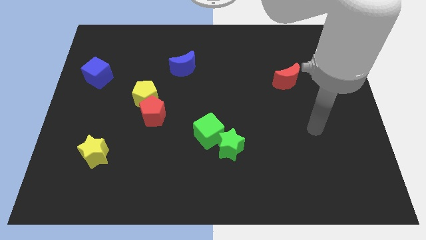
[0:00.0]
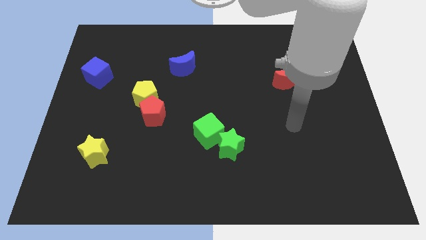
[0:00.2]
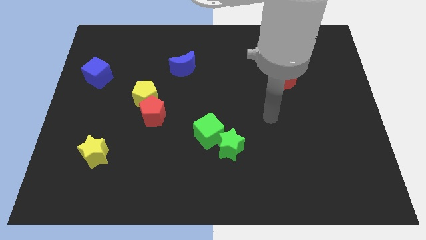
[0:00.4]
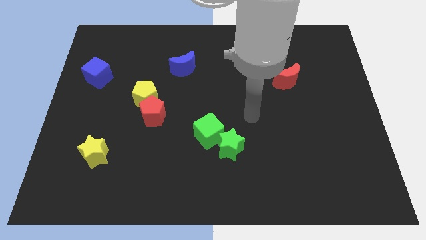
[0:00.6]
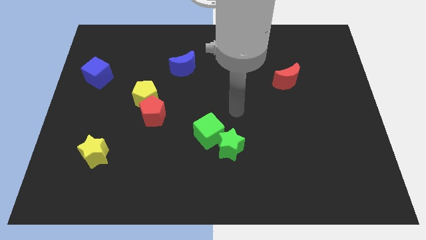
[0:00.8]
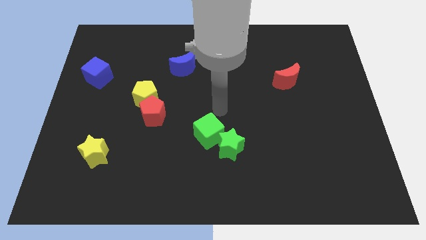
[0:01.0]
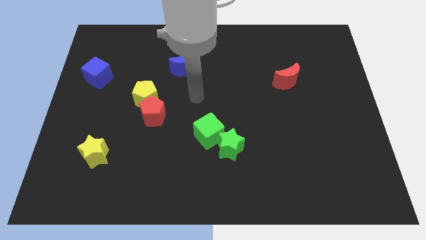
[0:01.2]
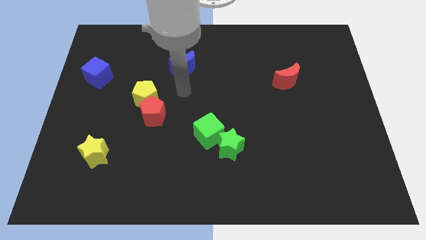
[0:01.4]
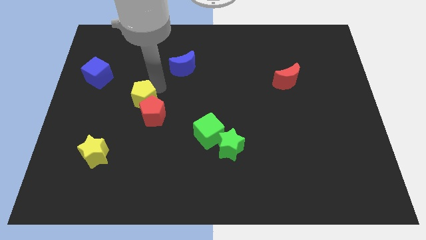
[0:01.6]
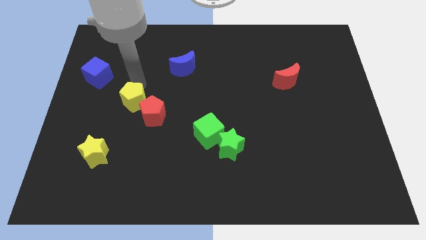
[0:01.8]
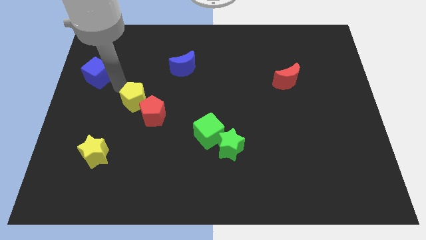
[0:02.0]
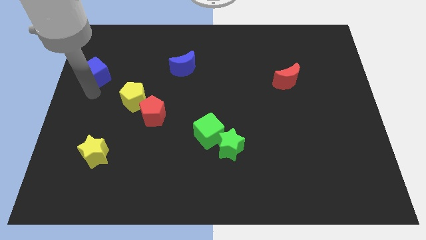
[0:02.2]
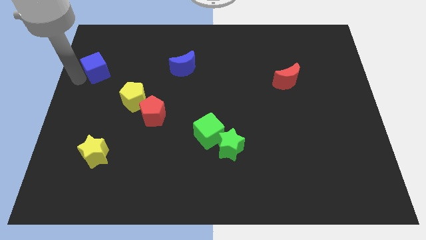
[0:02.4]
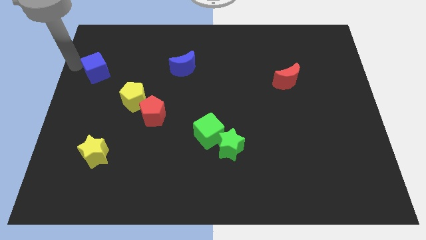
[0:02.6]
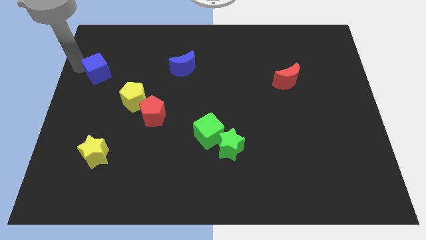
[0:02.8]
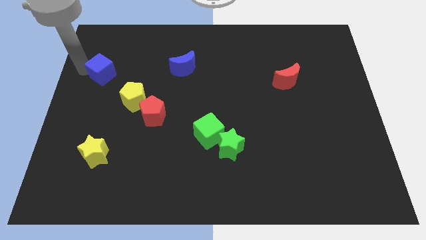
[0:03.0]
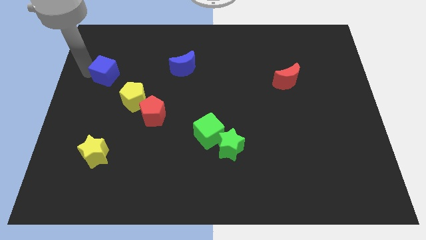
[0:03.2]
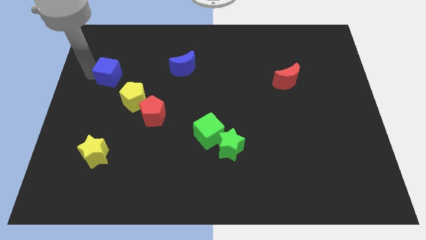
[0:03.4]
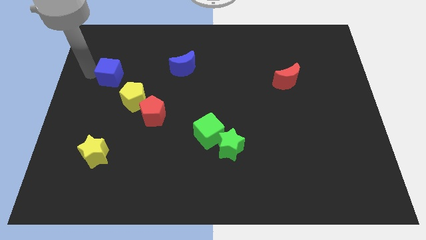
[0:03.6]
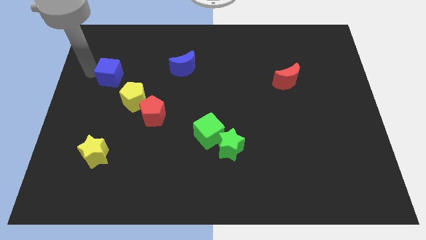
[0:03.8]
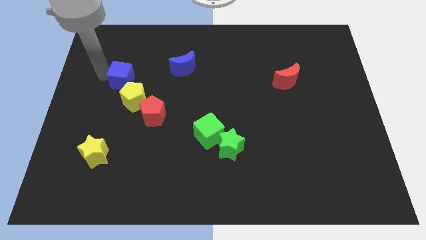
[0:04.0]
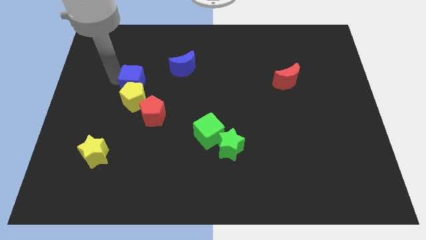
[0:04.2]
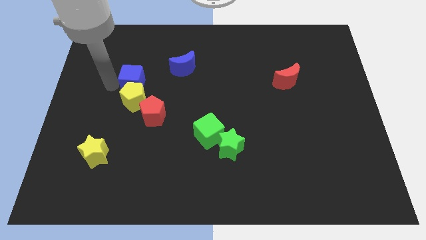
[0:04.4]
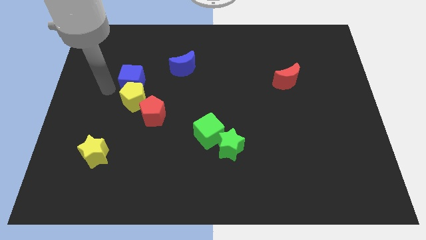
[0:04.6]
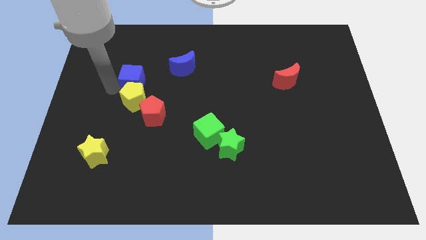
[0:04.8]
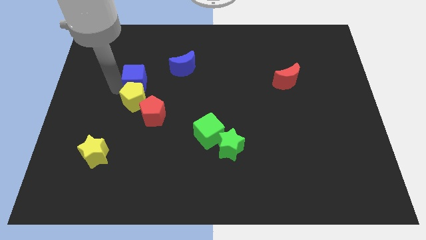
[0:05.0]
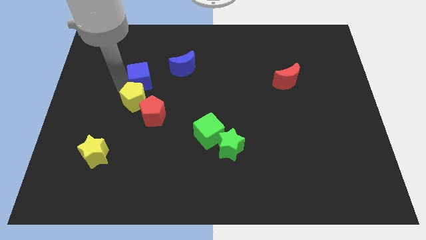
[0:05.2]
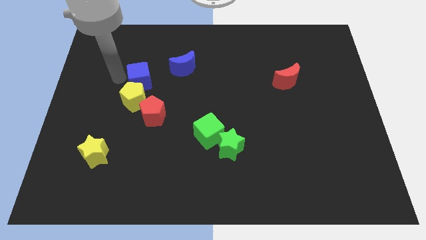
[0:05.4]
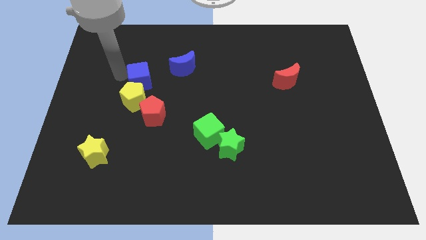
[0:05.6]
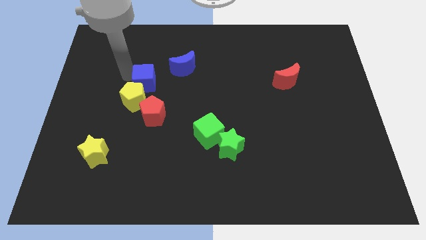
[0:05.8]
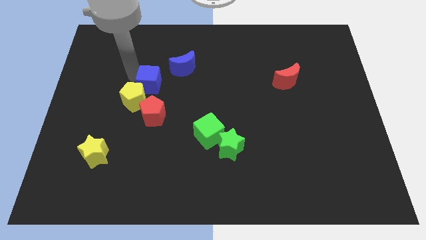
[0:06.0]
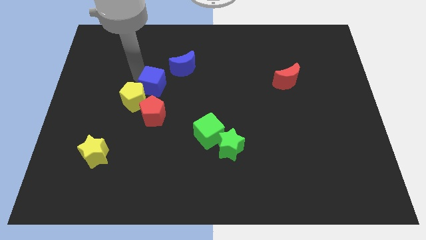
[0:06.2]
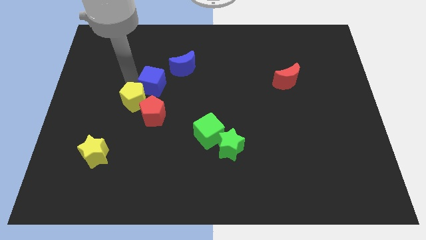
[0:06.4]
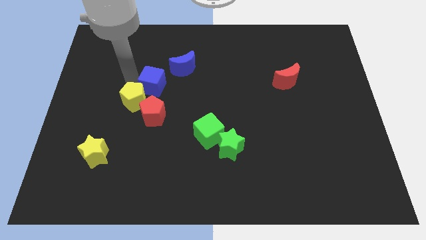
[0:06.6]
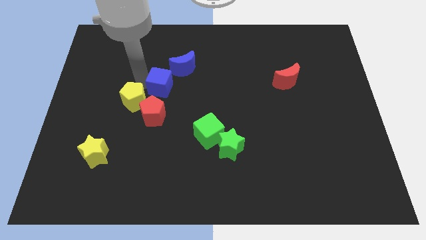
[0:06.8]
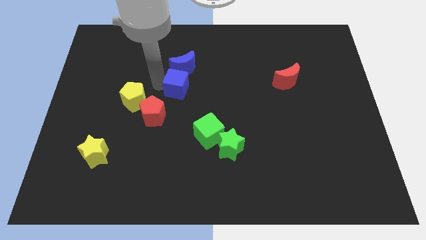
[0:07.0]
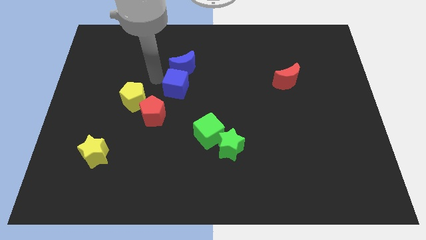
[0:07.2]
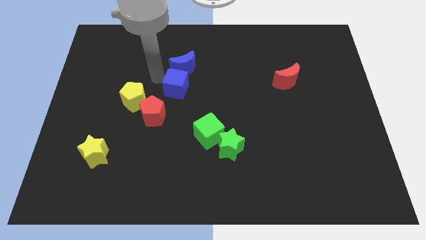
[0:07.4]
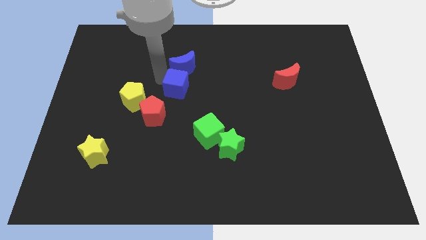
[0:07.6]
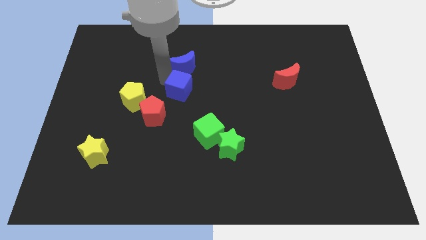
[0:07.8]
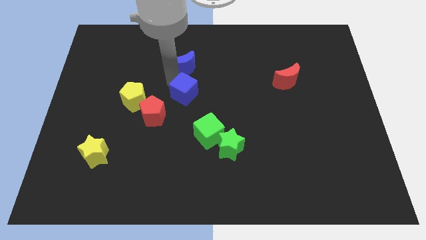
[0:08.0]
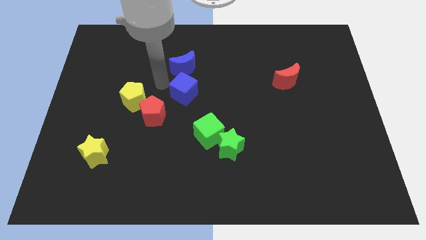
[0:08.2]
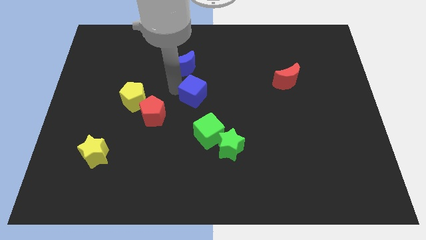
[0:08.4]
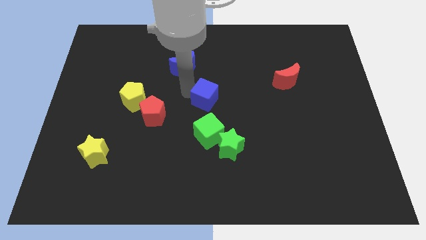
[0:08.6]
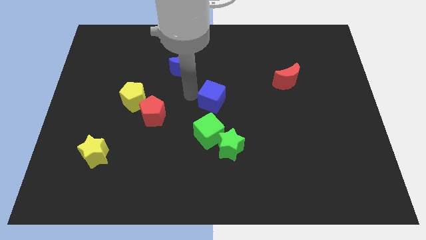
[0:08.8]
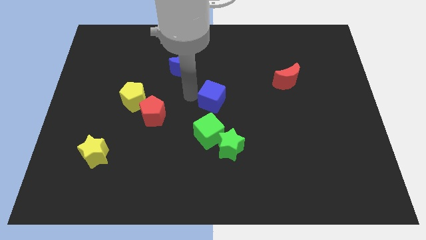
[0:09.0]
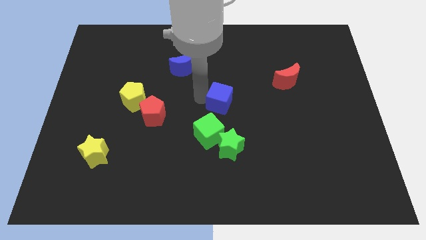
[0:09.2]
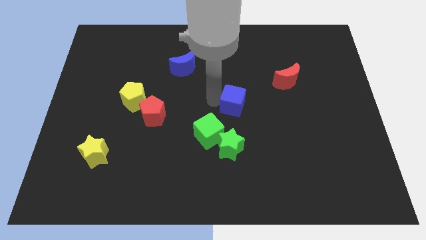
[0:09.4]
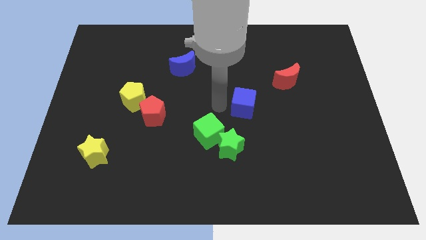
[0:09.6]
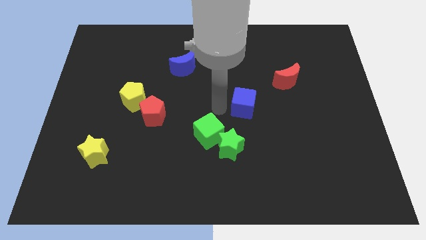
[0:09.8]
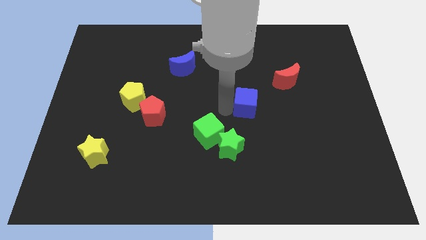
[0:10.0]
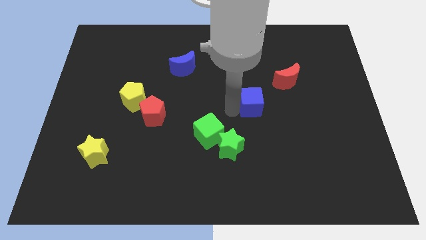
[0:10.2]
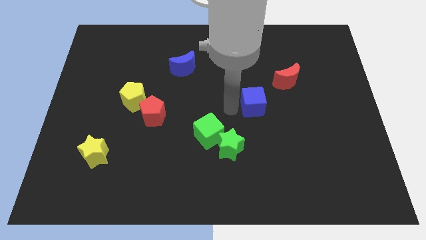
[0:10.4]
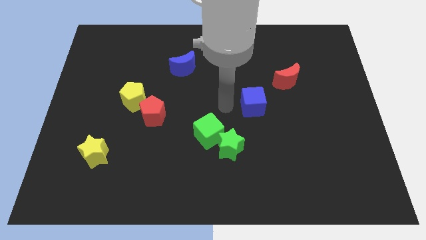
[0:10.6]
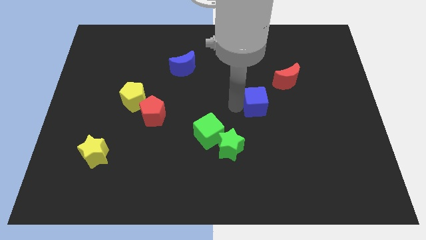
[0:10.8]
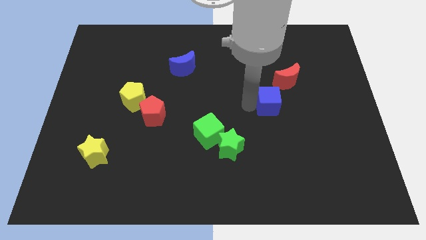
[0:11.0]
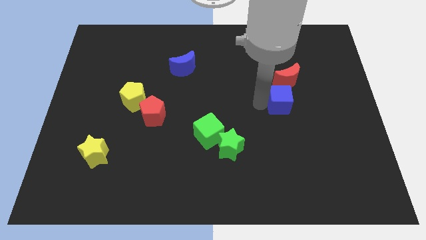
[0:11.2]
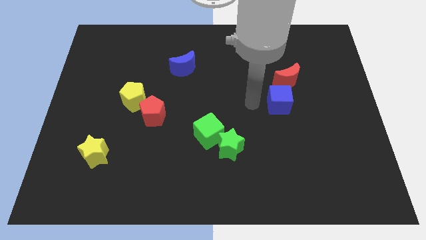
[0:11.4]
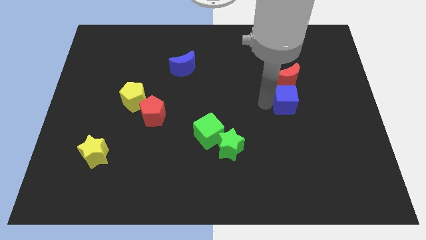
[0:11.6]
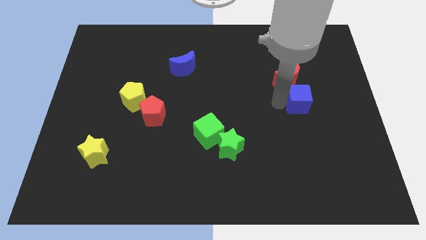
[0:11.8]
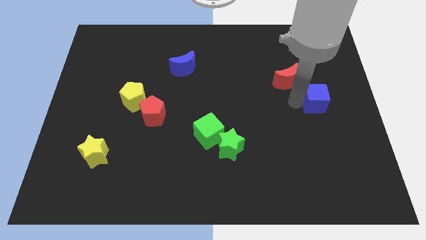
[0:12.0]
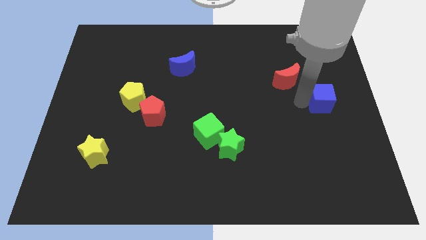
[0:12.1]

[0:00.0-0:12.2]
push the blue cube to the right side

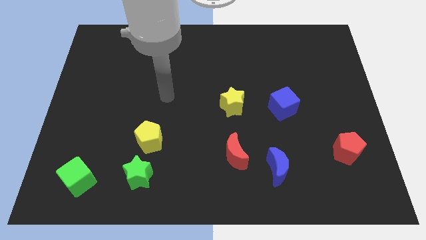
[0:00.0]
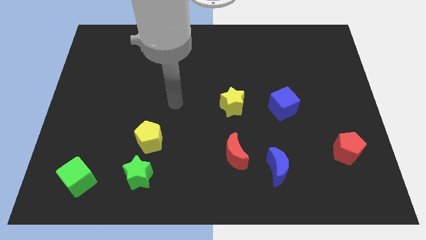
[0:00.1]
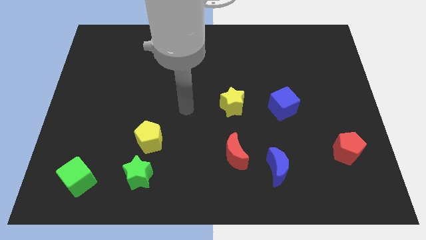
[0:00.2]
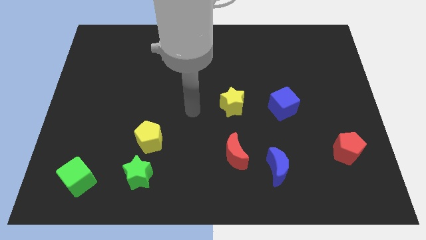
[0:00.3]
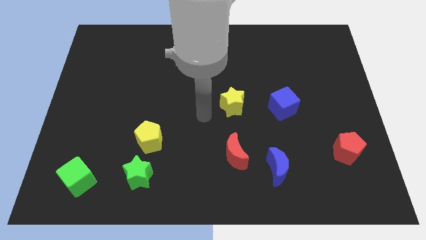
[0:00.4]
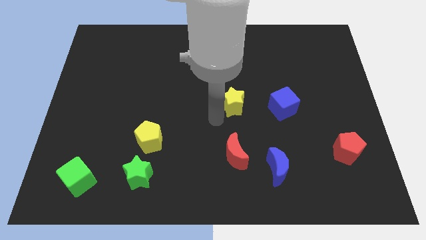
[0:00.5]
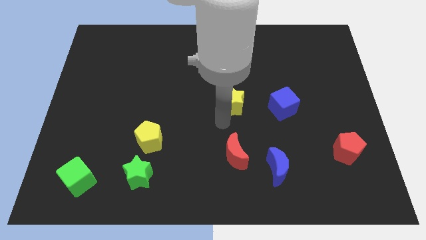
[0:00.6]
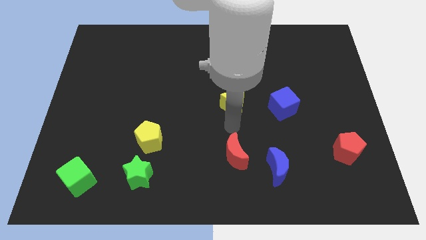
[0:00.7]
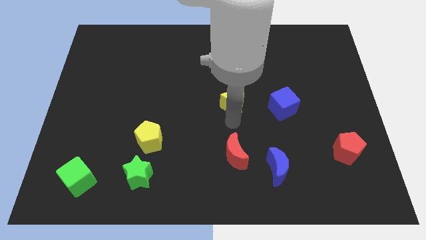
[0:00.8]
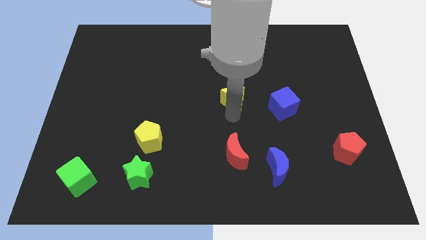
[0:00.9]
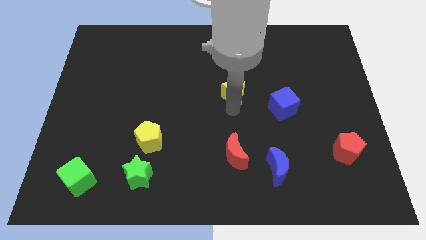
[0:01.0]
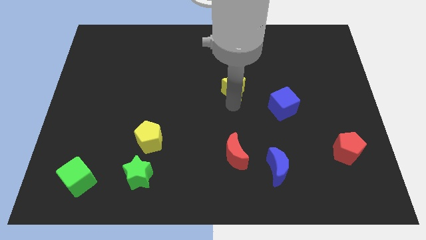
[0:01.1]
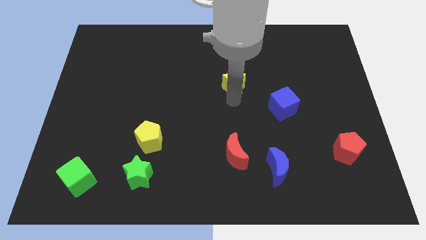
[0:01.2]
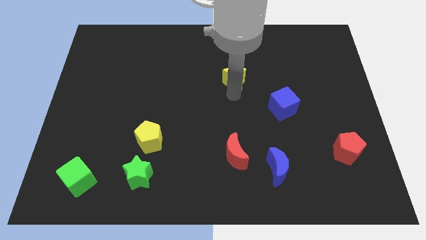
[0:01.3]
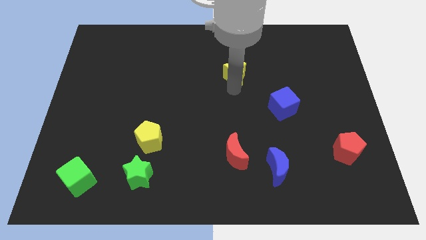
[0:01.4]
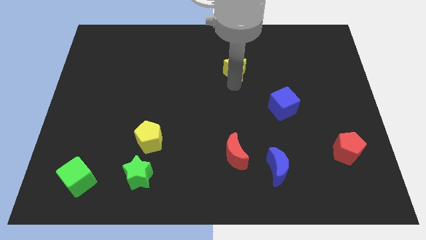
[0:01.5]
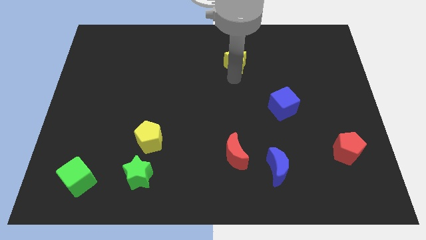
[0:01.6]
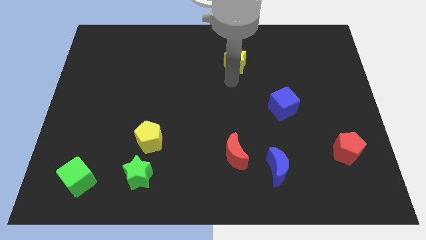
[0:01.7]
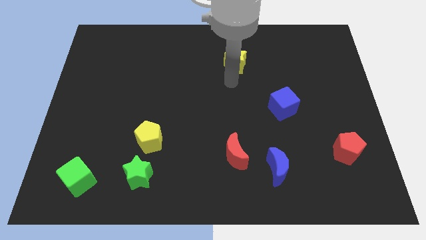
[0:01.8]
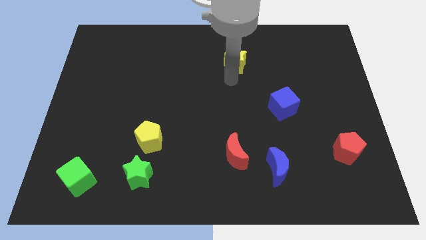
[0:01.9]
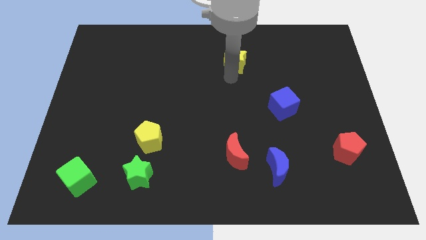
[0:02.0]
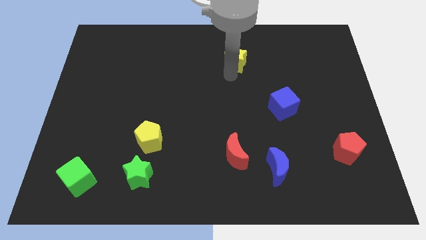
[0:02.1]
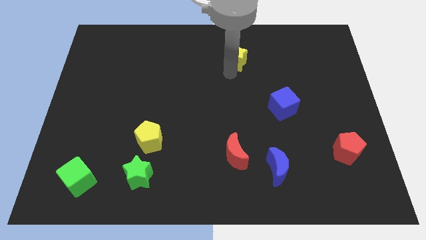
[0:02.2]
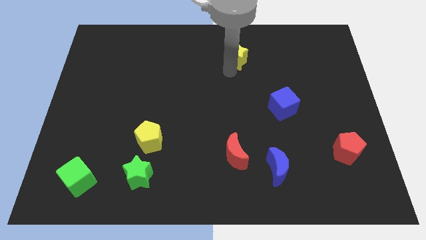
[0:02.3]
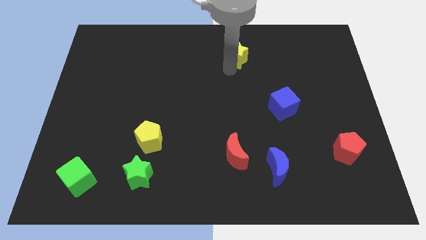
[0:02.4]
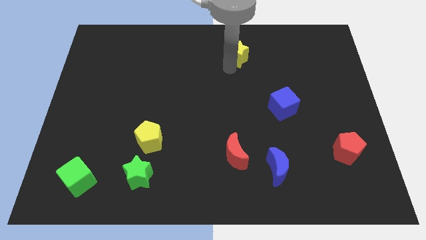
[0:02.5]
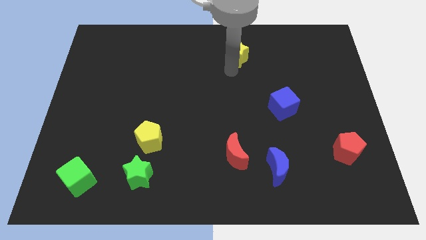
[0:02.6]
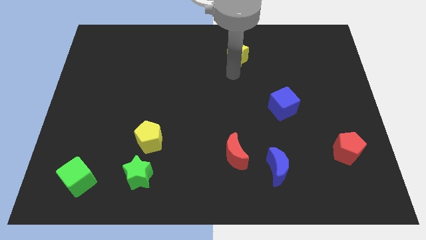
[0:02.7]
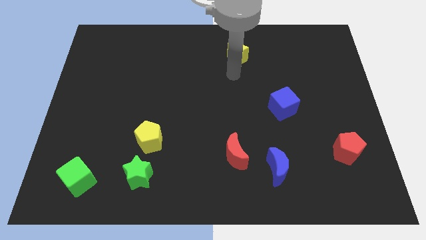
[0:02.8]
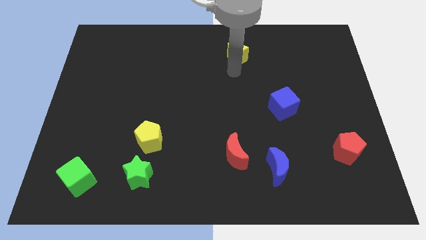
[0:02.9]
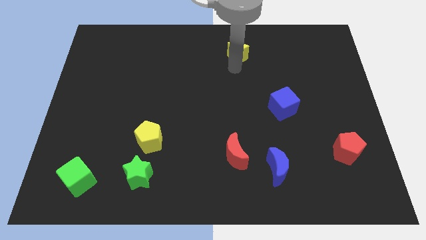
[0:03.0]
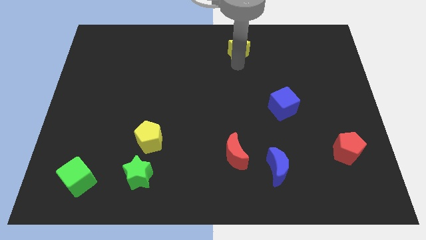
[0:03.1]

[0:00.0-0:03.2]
push the yellow star to the top side
